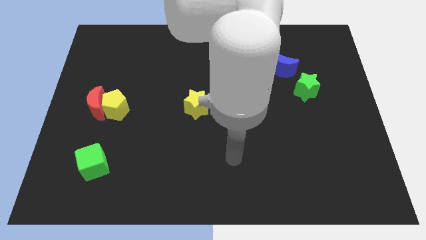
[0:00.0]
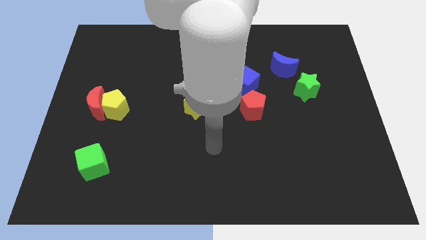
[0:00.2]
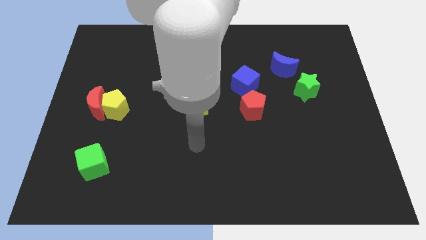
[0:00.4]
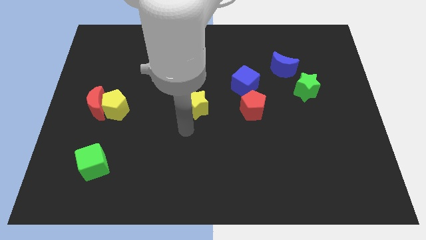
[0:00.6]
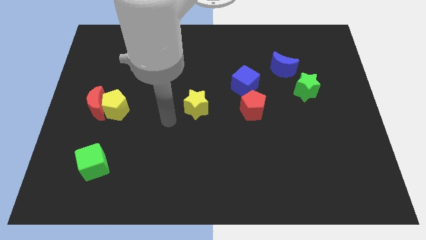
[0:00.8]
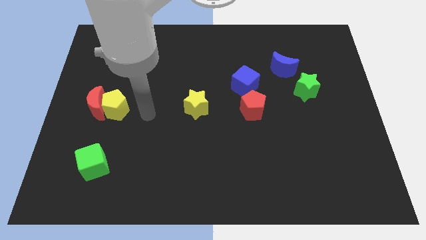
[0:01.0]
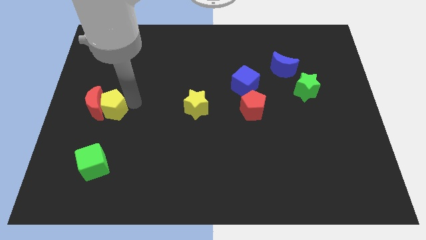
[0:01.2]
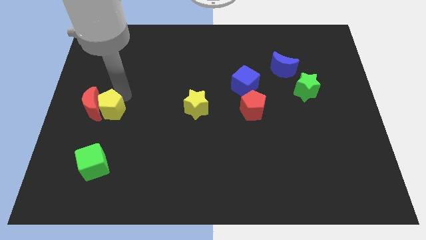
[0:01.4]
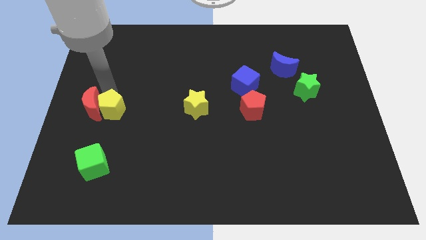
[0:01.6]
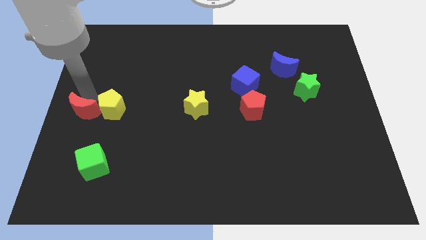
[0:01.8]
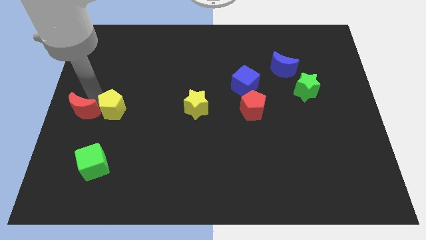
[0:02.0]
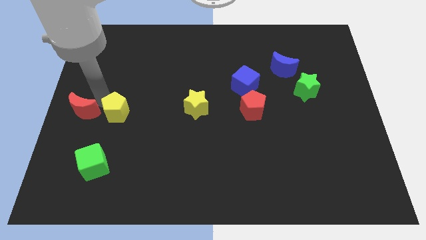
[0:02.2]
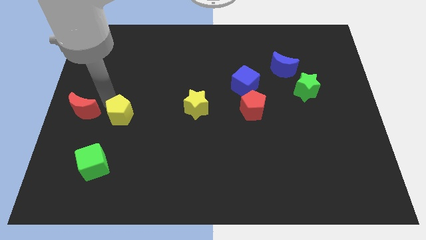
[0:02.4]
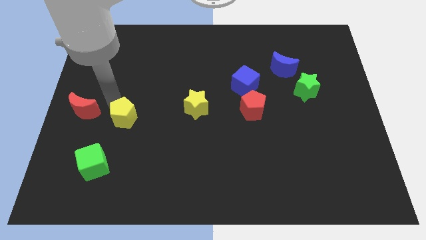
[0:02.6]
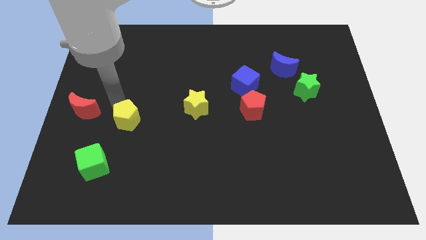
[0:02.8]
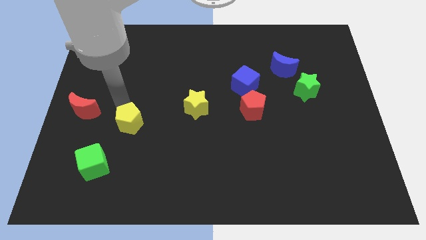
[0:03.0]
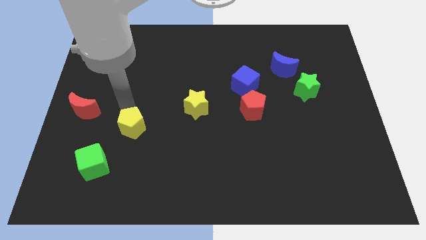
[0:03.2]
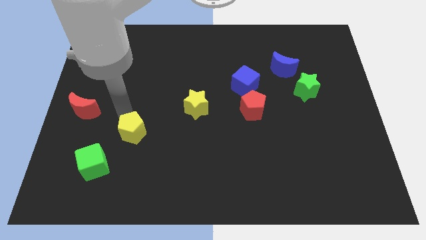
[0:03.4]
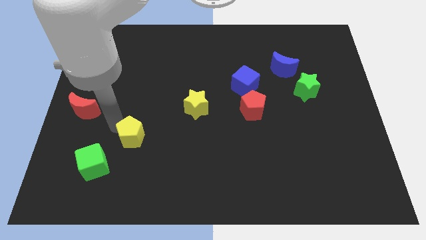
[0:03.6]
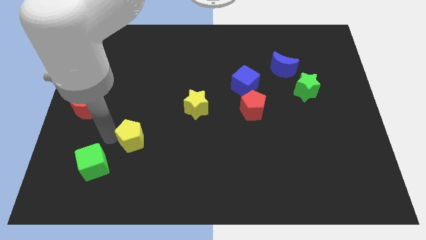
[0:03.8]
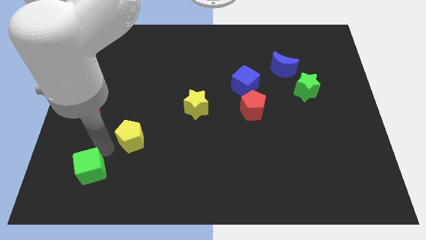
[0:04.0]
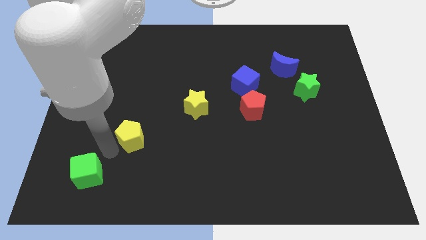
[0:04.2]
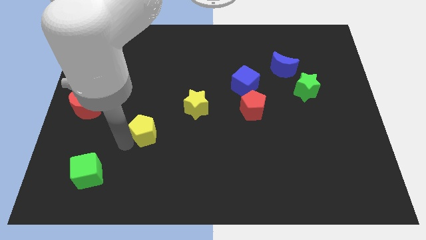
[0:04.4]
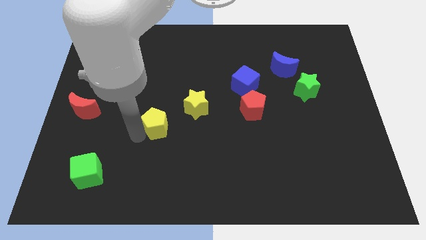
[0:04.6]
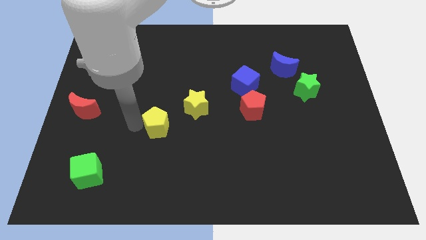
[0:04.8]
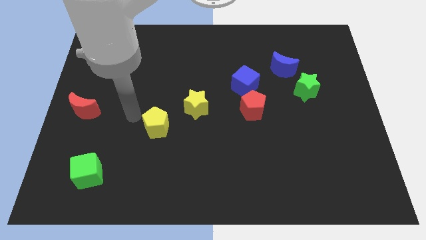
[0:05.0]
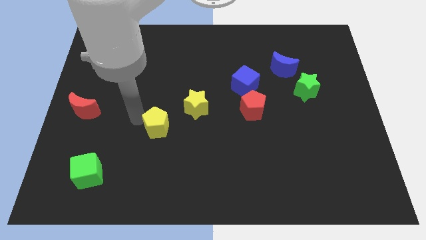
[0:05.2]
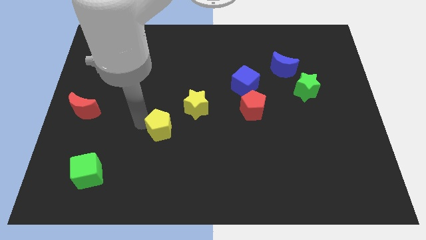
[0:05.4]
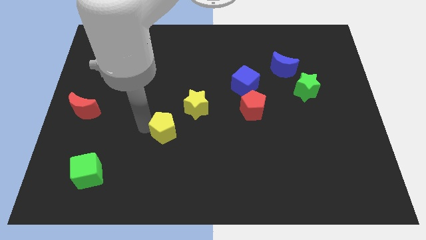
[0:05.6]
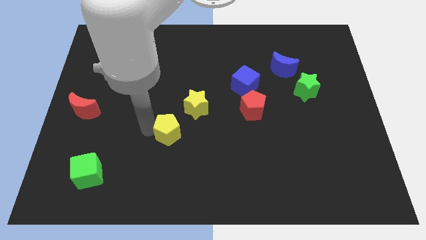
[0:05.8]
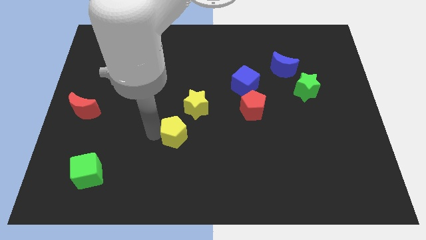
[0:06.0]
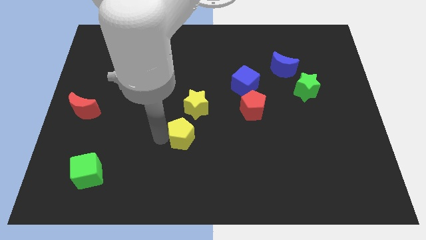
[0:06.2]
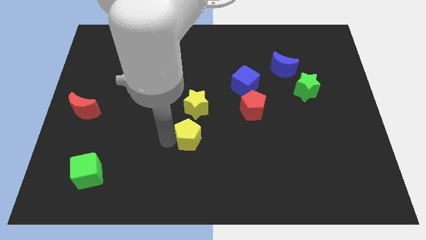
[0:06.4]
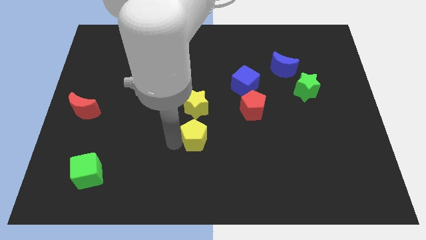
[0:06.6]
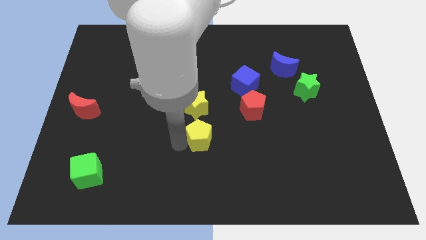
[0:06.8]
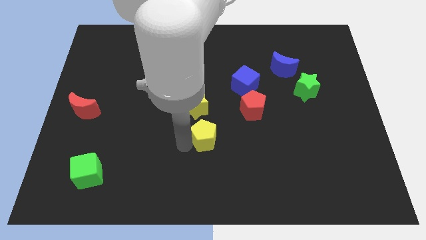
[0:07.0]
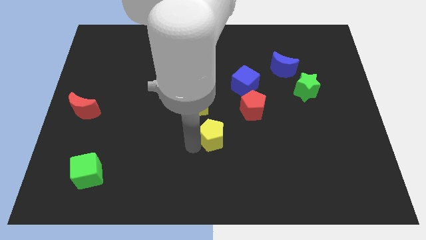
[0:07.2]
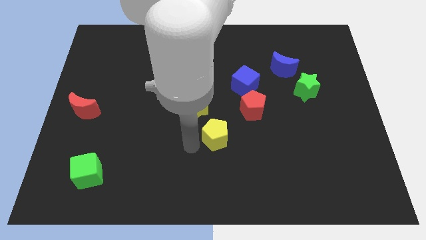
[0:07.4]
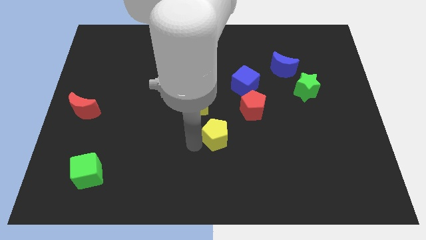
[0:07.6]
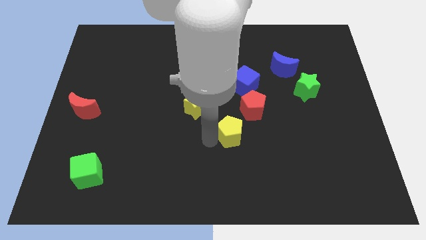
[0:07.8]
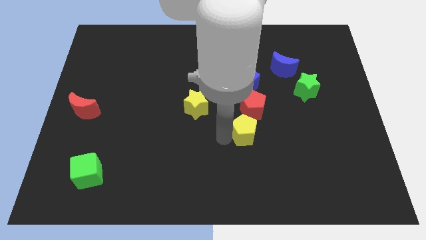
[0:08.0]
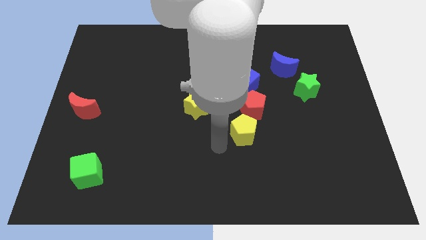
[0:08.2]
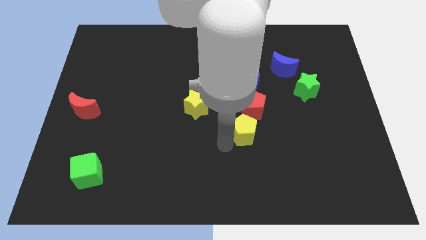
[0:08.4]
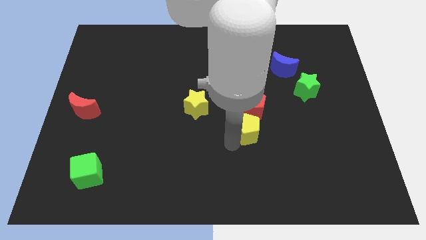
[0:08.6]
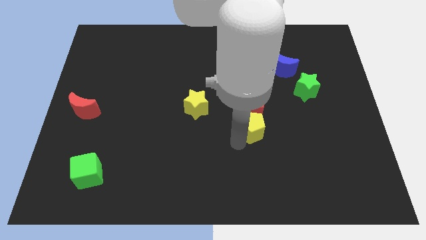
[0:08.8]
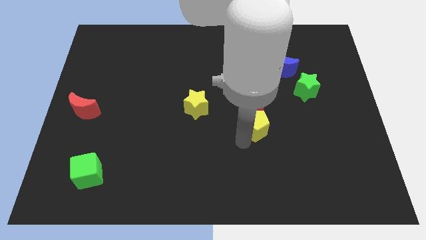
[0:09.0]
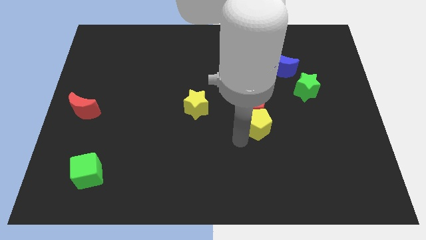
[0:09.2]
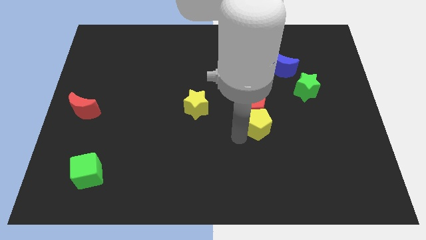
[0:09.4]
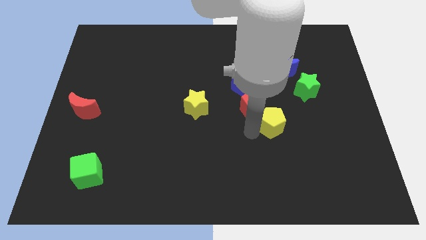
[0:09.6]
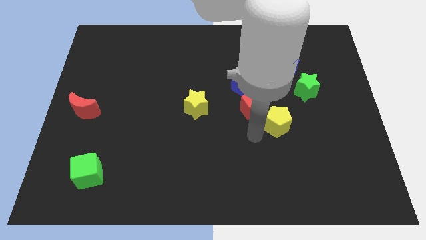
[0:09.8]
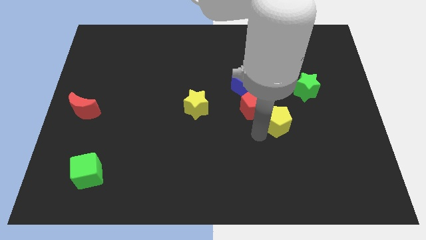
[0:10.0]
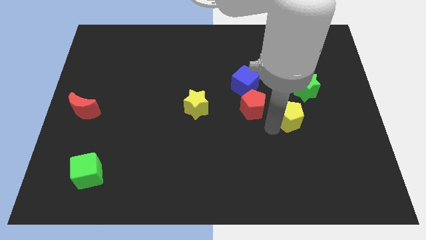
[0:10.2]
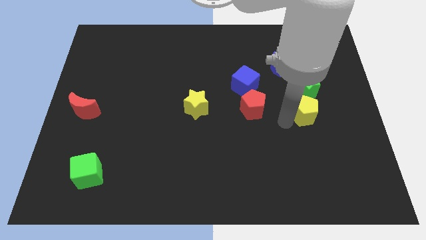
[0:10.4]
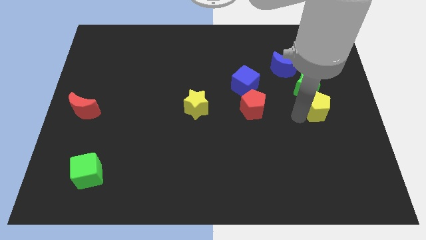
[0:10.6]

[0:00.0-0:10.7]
move the yellow pentagon to the bottom right side of the green star

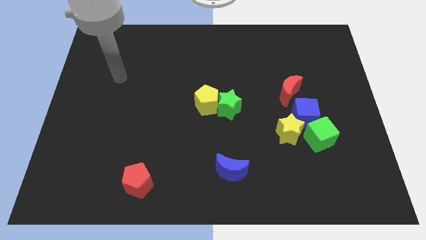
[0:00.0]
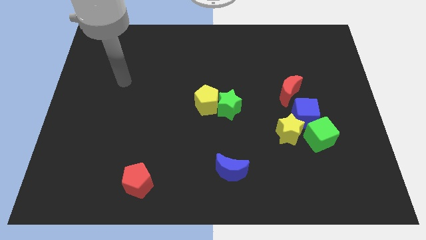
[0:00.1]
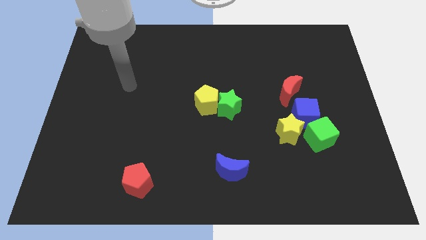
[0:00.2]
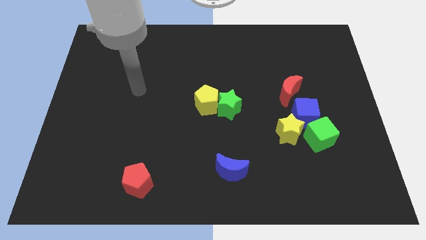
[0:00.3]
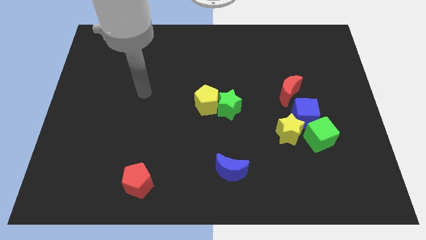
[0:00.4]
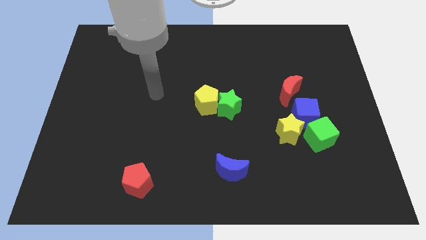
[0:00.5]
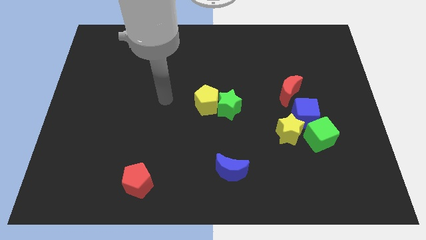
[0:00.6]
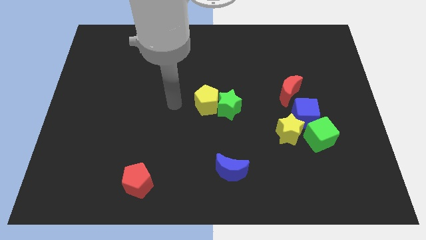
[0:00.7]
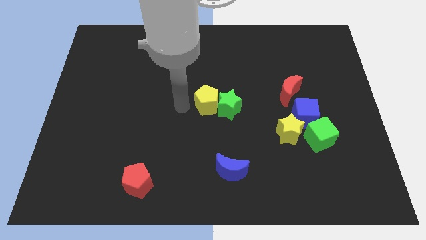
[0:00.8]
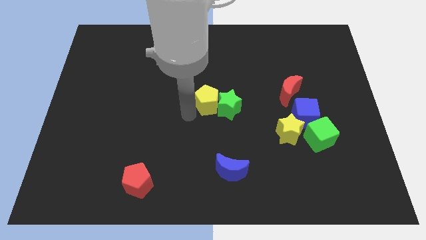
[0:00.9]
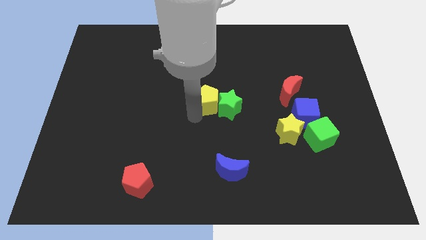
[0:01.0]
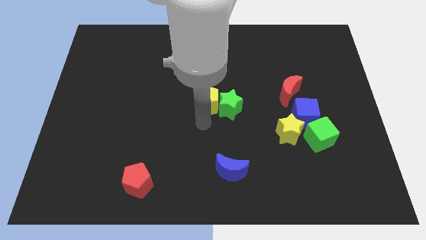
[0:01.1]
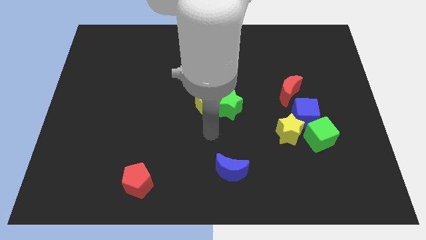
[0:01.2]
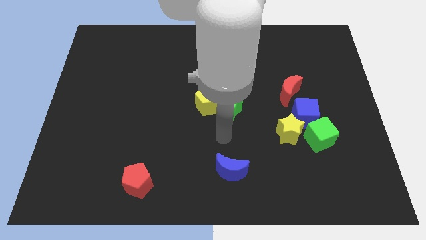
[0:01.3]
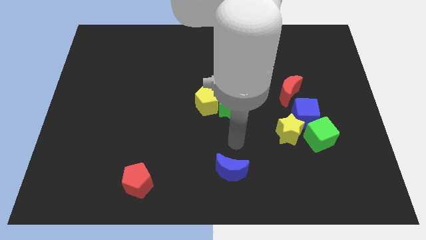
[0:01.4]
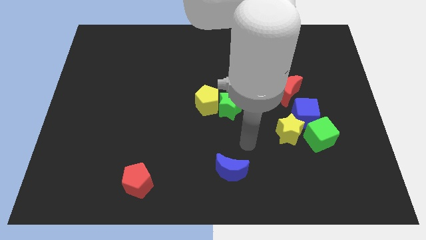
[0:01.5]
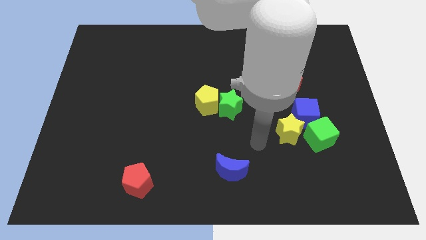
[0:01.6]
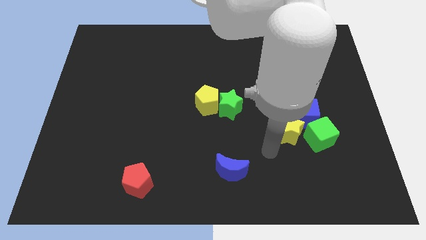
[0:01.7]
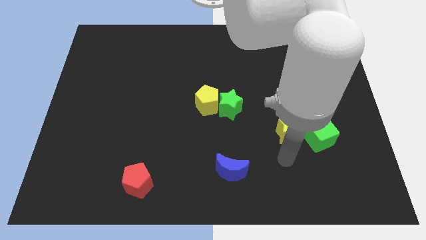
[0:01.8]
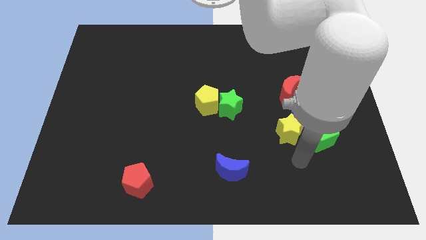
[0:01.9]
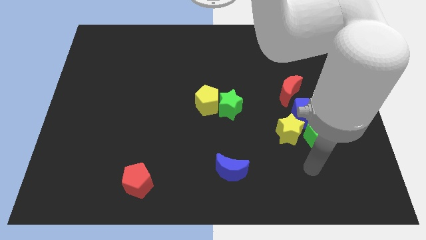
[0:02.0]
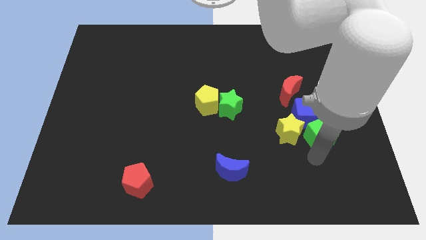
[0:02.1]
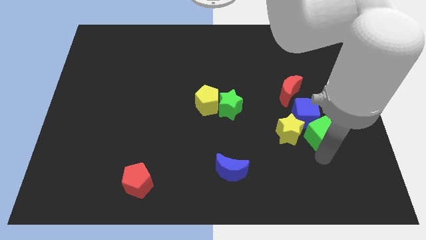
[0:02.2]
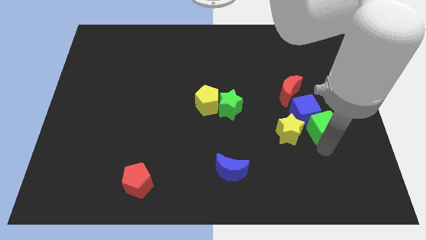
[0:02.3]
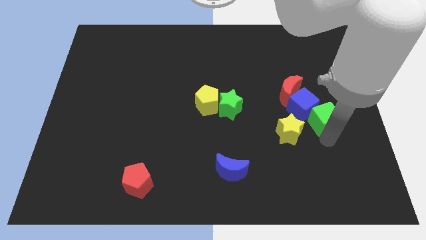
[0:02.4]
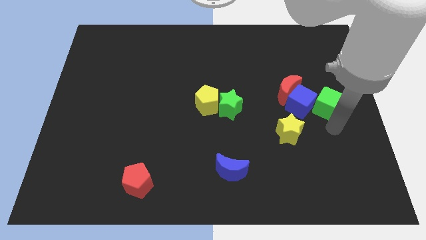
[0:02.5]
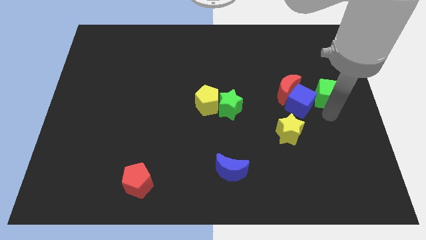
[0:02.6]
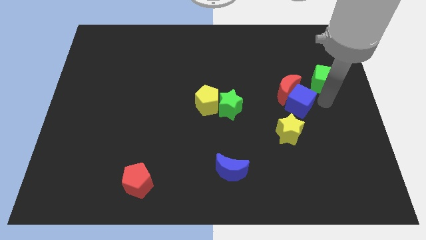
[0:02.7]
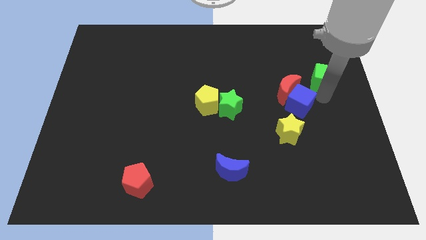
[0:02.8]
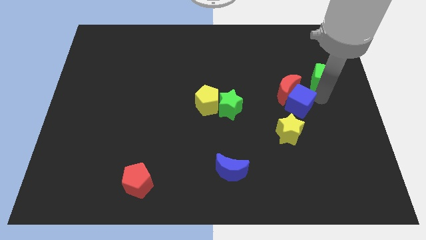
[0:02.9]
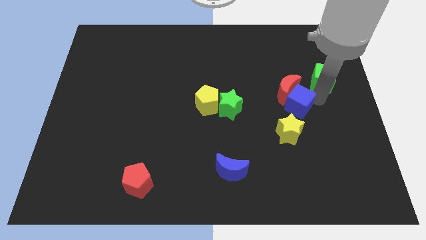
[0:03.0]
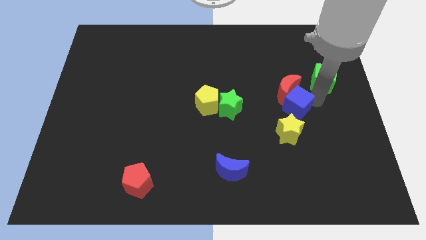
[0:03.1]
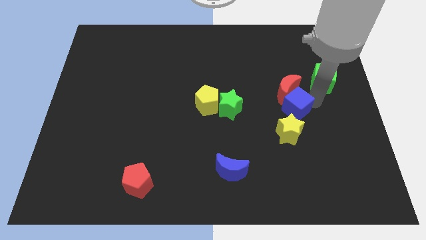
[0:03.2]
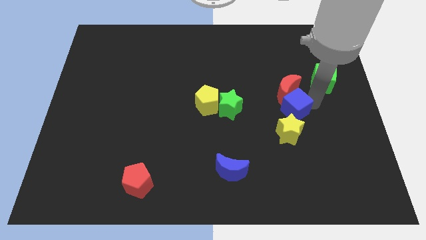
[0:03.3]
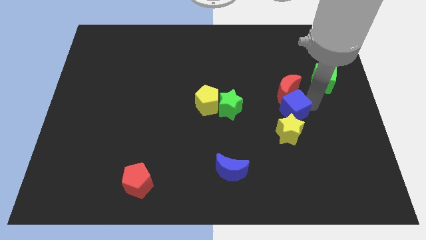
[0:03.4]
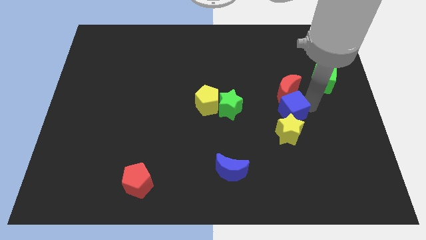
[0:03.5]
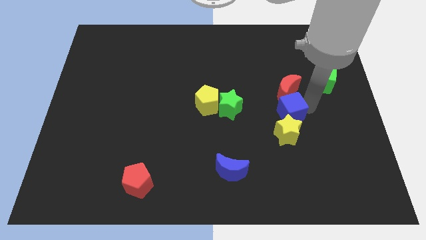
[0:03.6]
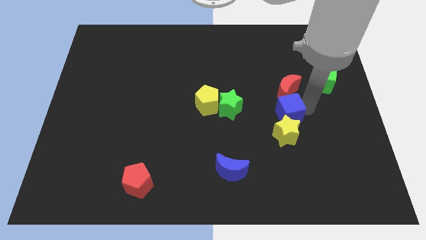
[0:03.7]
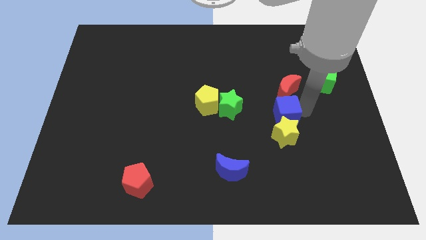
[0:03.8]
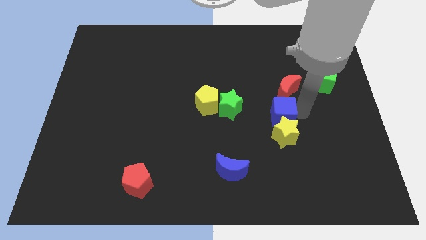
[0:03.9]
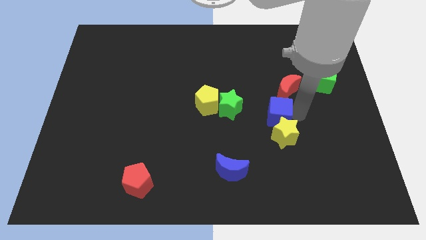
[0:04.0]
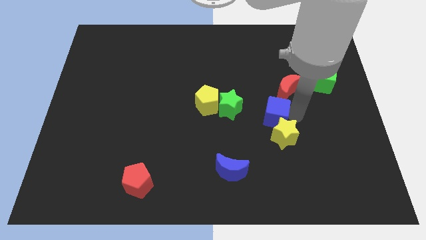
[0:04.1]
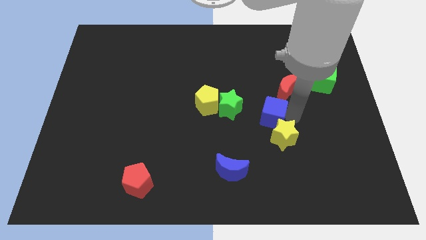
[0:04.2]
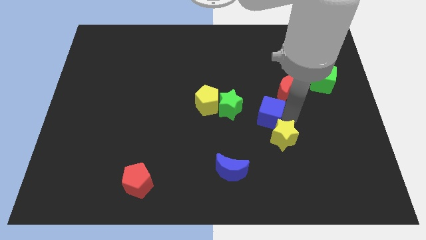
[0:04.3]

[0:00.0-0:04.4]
push the blue cube just right of the yellow pentagon
